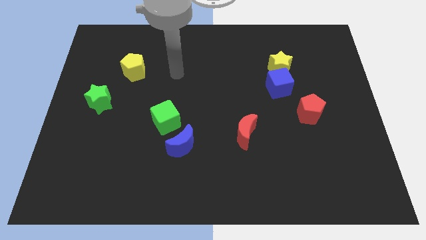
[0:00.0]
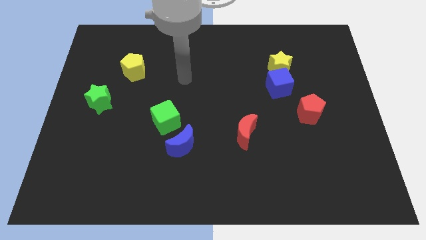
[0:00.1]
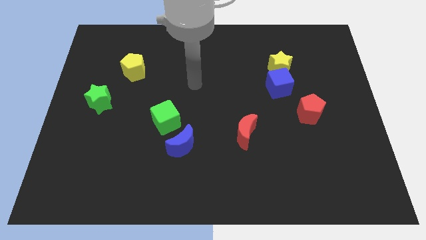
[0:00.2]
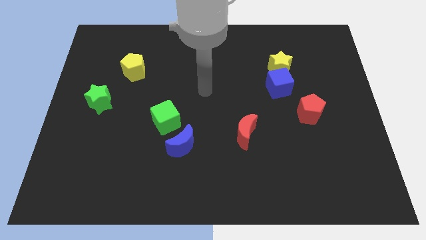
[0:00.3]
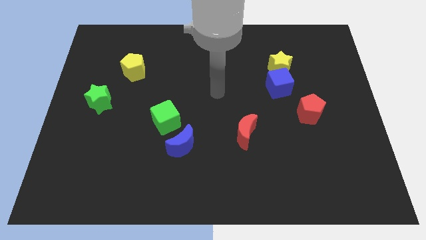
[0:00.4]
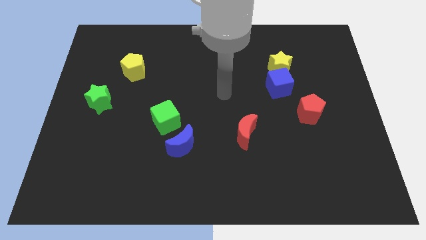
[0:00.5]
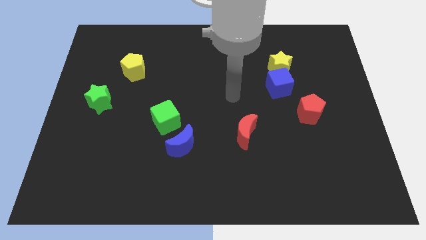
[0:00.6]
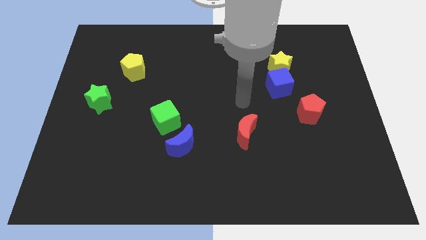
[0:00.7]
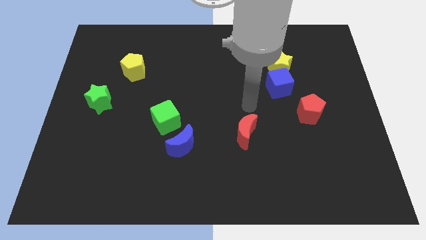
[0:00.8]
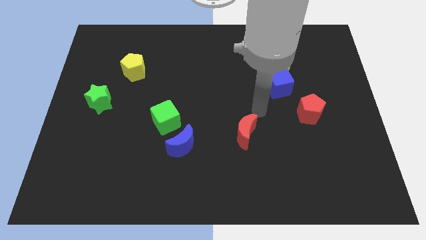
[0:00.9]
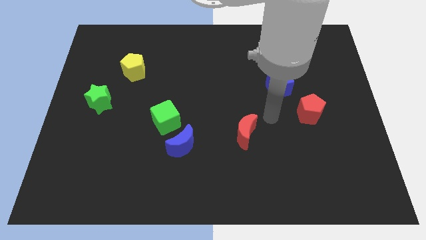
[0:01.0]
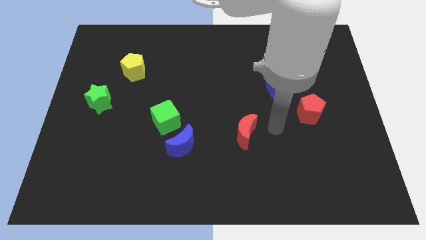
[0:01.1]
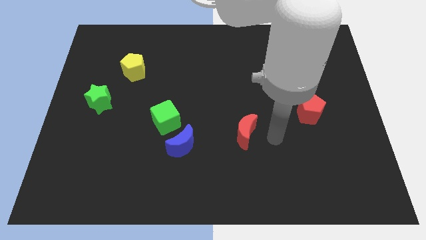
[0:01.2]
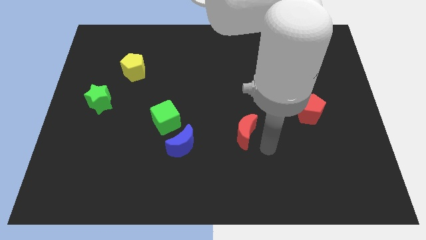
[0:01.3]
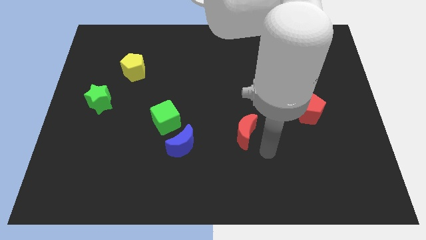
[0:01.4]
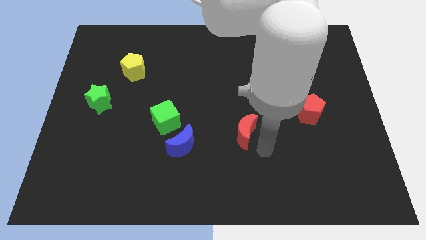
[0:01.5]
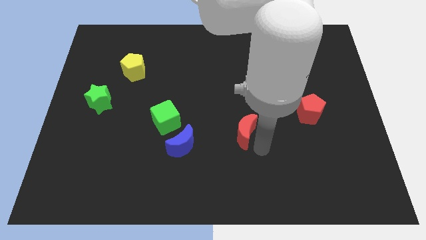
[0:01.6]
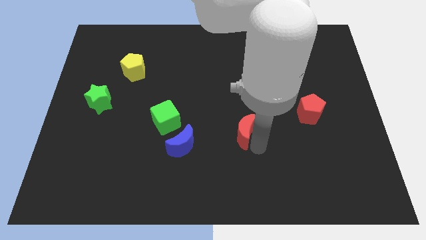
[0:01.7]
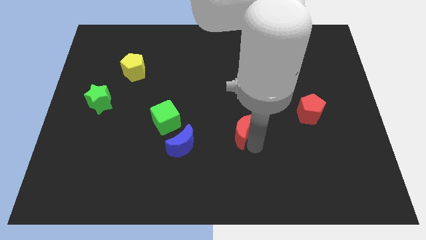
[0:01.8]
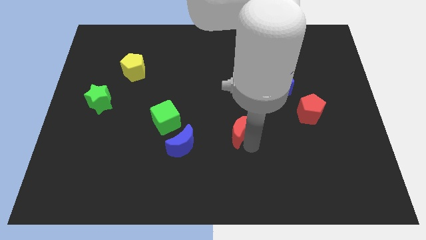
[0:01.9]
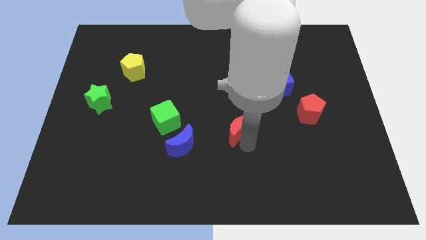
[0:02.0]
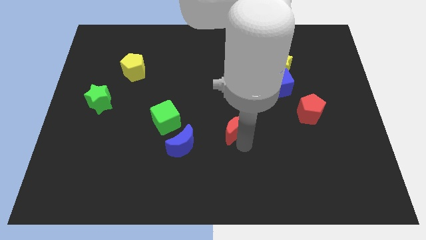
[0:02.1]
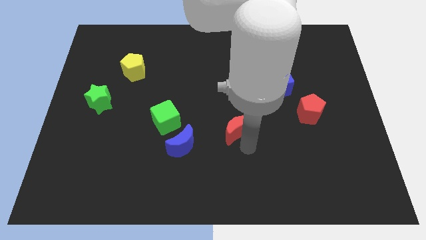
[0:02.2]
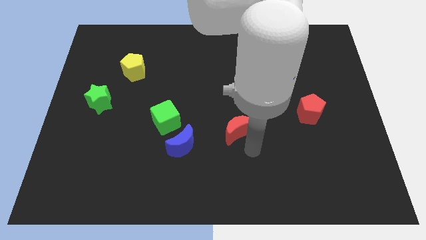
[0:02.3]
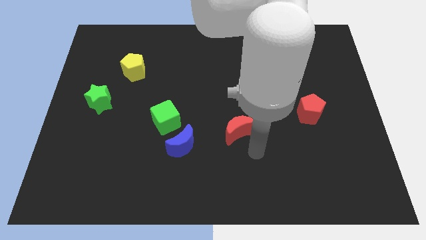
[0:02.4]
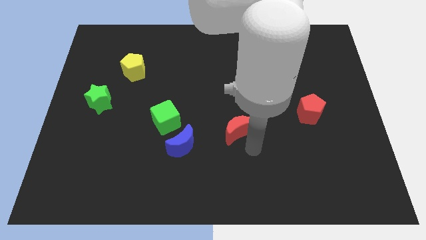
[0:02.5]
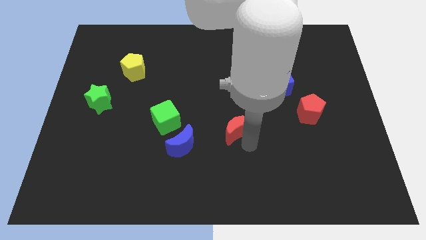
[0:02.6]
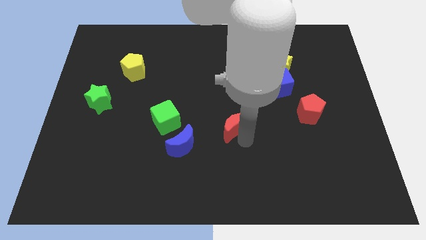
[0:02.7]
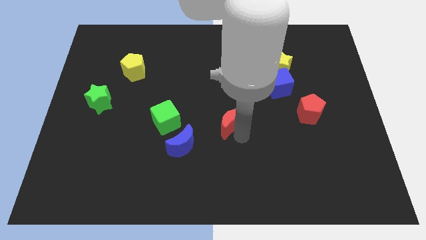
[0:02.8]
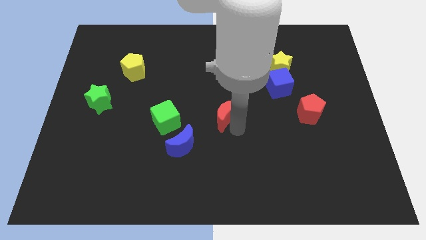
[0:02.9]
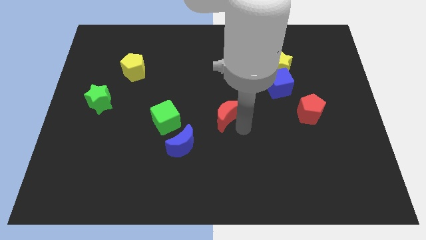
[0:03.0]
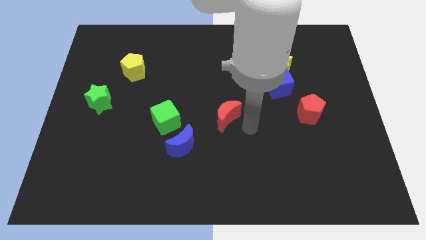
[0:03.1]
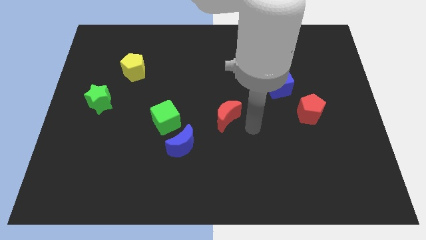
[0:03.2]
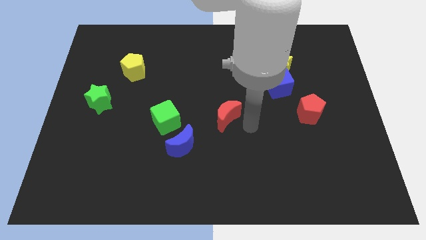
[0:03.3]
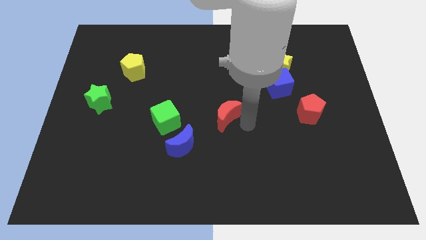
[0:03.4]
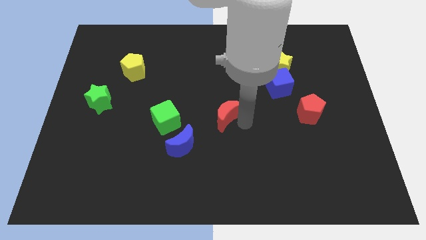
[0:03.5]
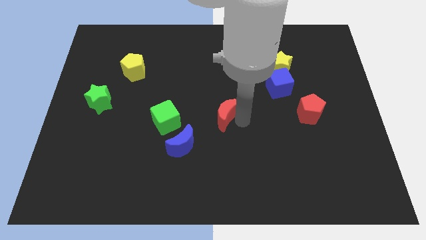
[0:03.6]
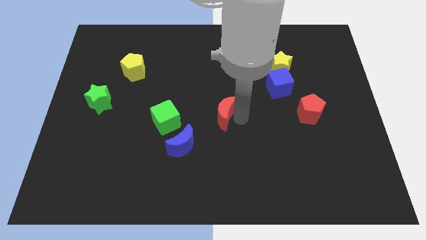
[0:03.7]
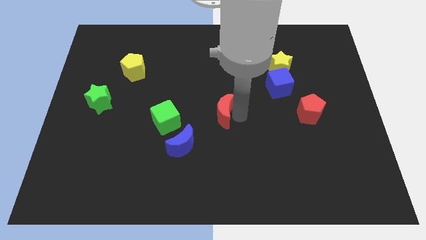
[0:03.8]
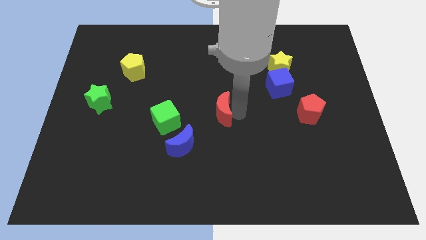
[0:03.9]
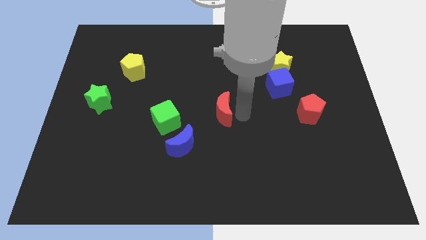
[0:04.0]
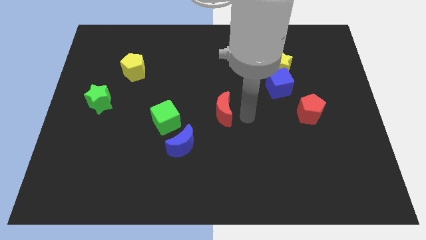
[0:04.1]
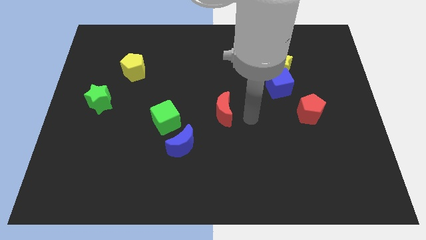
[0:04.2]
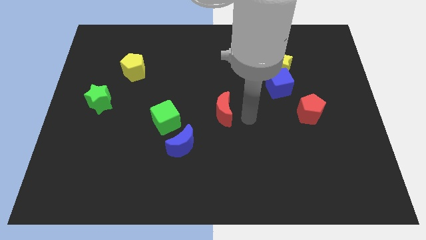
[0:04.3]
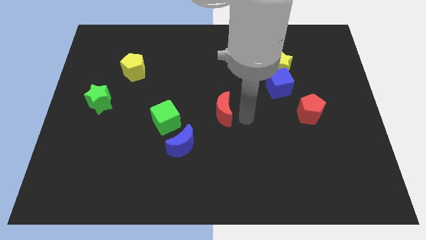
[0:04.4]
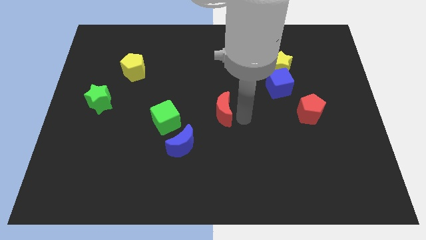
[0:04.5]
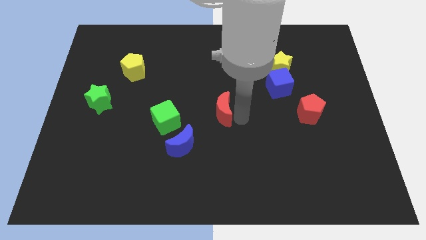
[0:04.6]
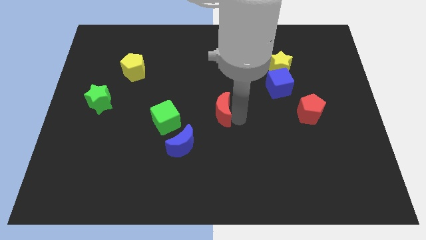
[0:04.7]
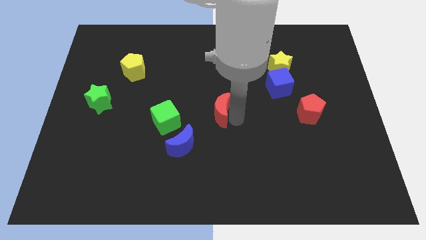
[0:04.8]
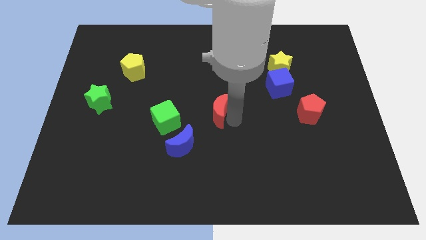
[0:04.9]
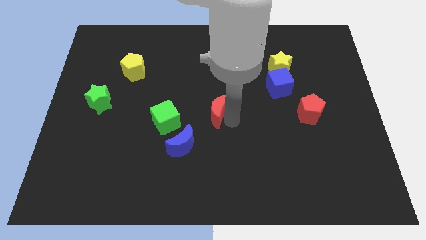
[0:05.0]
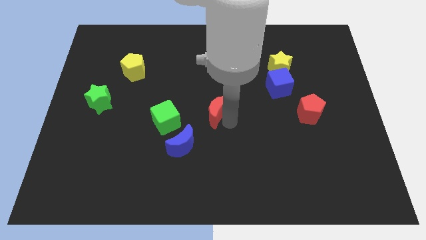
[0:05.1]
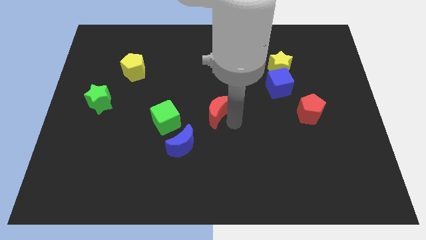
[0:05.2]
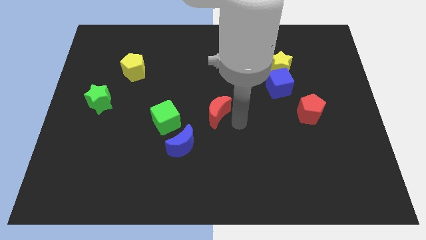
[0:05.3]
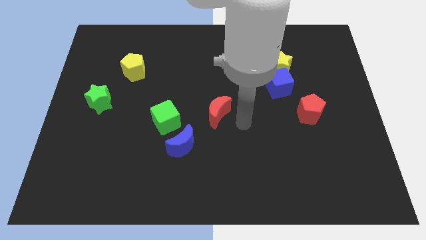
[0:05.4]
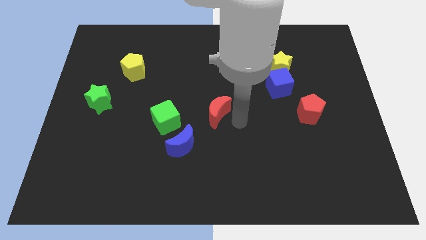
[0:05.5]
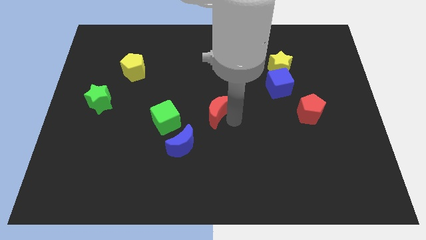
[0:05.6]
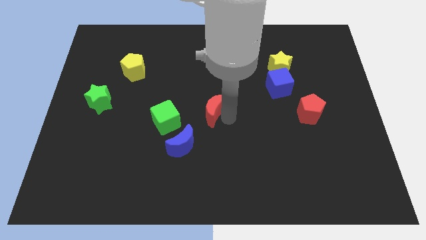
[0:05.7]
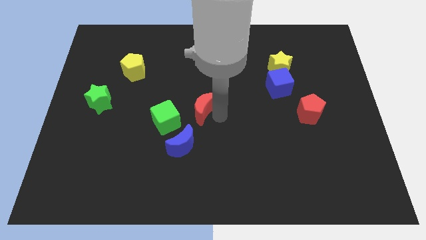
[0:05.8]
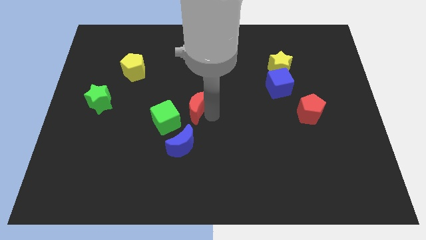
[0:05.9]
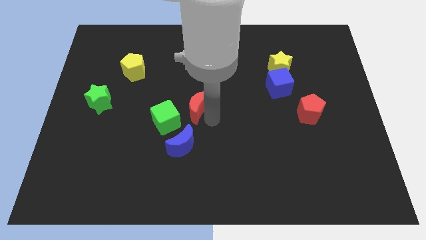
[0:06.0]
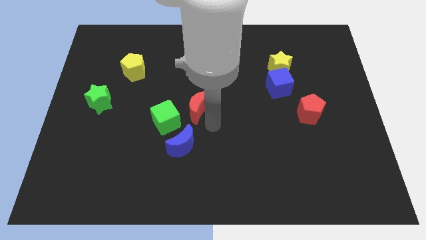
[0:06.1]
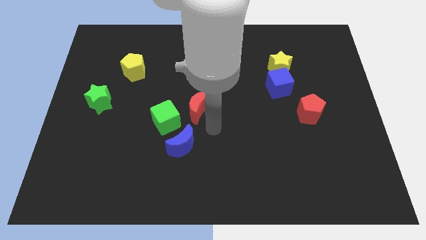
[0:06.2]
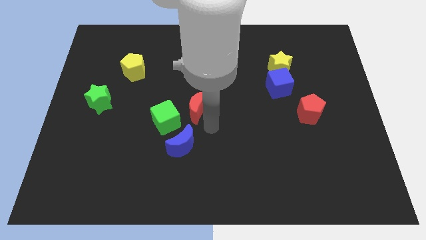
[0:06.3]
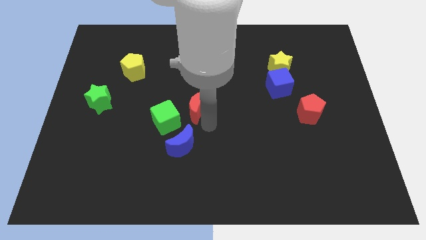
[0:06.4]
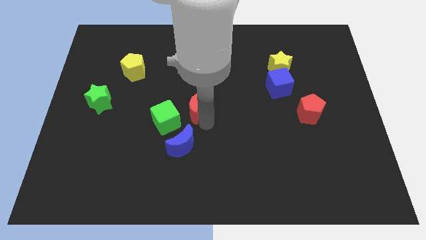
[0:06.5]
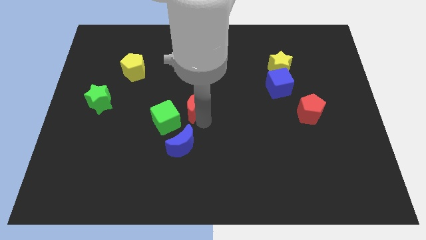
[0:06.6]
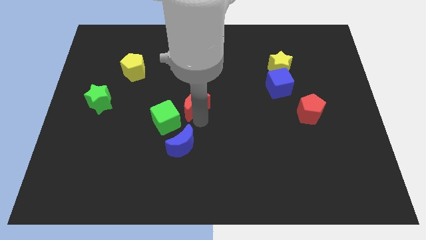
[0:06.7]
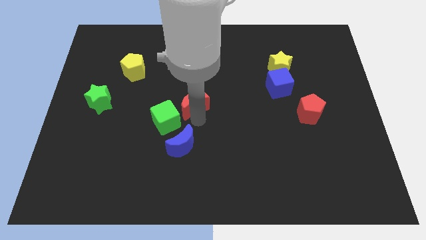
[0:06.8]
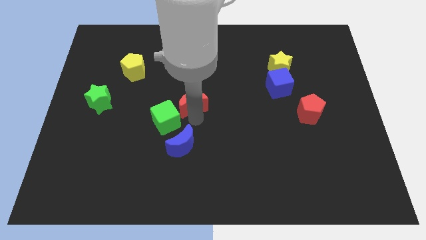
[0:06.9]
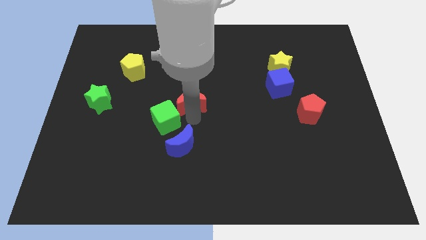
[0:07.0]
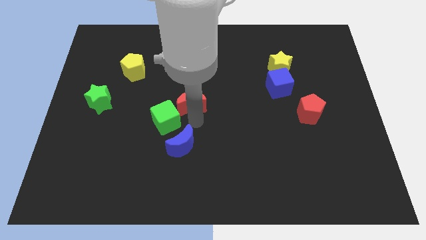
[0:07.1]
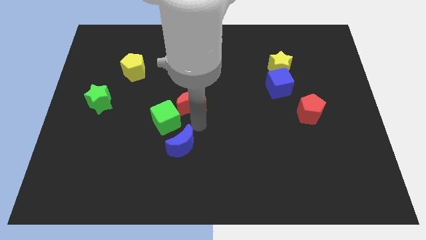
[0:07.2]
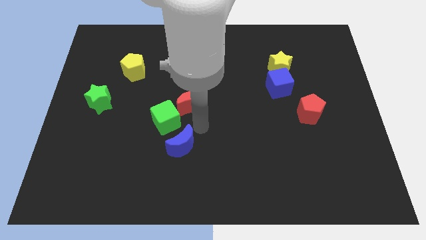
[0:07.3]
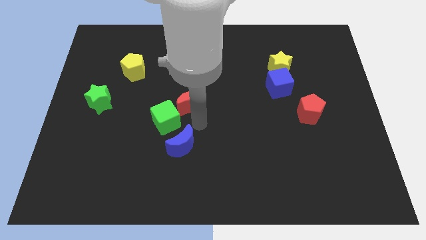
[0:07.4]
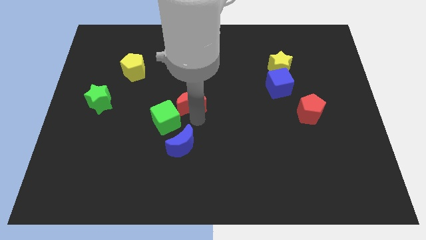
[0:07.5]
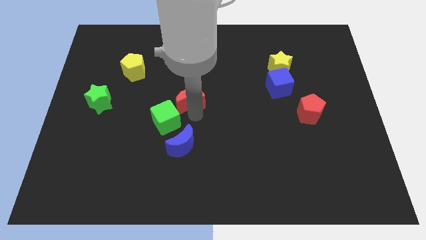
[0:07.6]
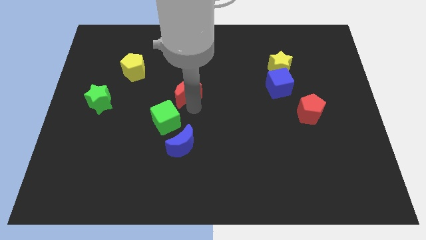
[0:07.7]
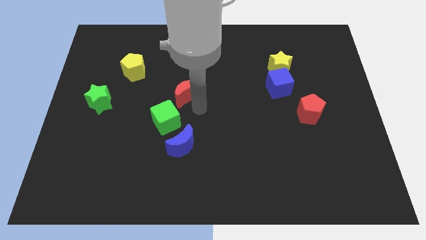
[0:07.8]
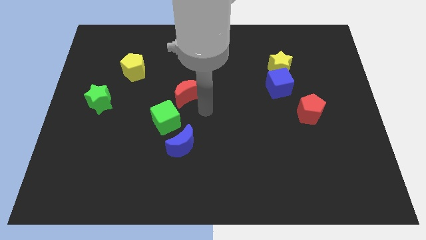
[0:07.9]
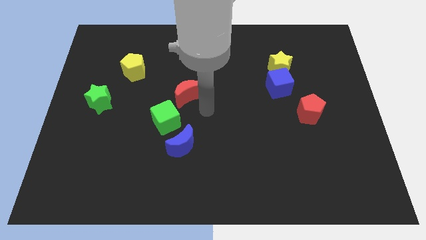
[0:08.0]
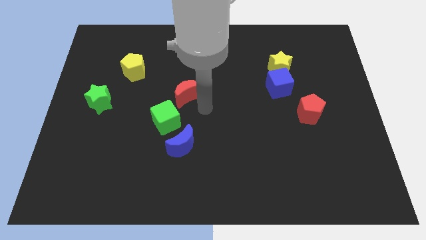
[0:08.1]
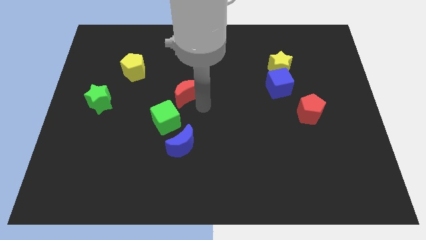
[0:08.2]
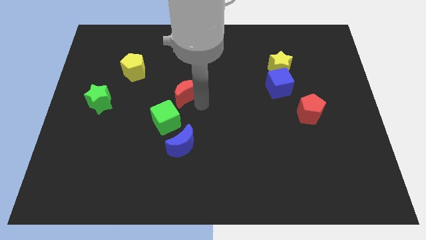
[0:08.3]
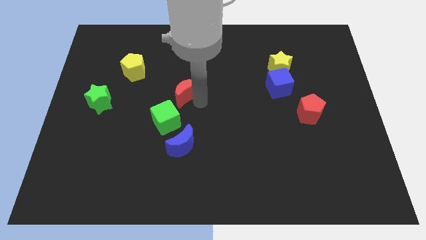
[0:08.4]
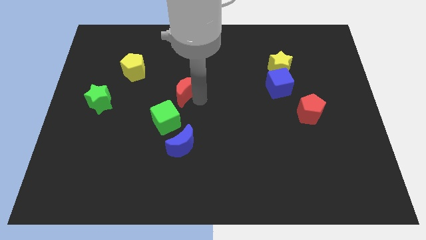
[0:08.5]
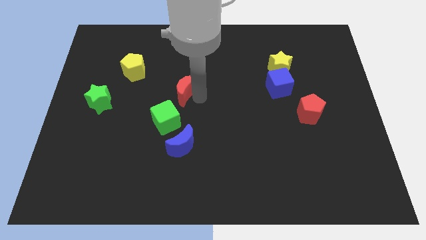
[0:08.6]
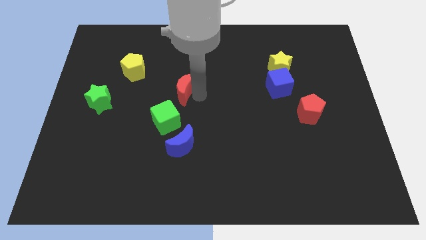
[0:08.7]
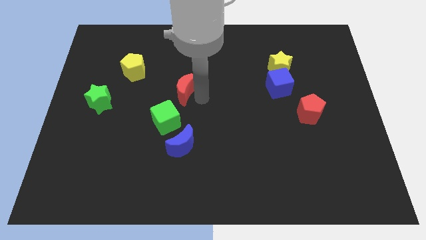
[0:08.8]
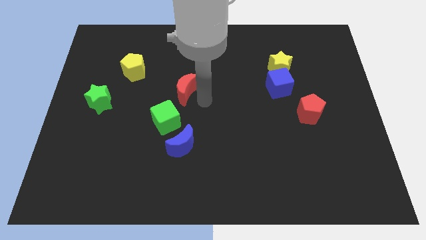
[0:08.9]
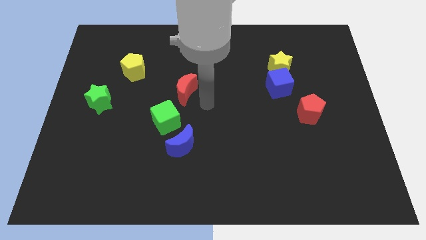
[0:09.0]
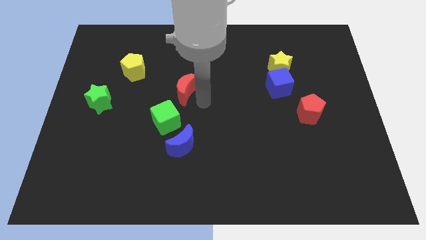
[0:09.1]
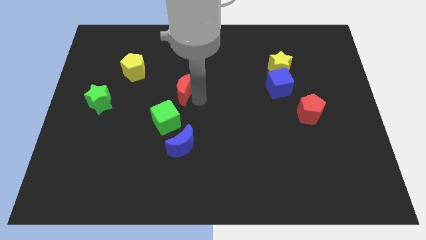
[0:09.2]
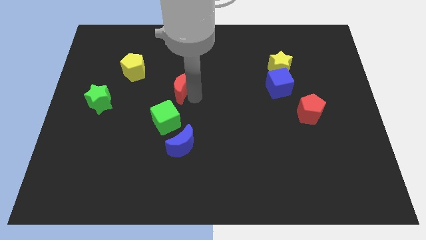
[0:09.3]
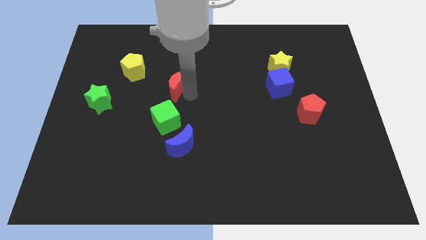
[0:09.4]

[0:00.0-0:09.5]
slide the red moon up and then left
